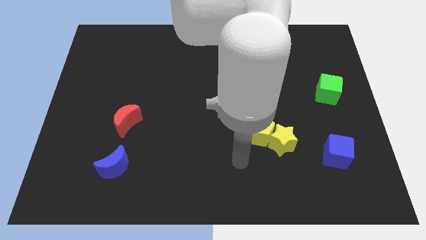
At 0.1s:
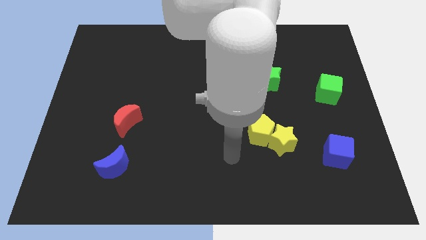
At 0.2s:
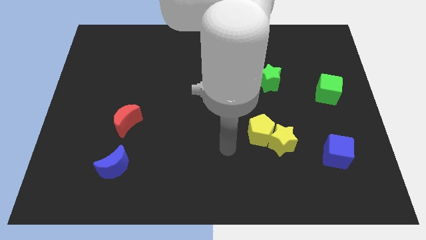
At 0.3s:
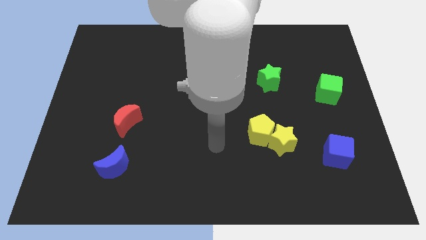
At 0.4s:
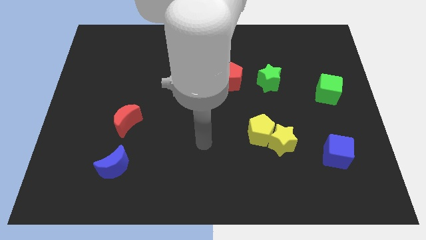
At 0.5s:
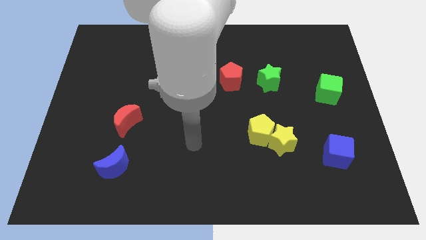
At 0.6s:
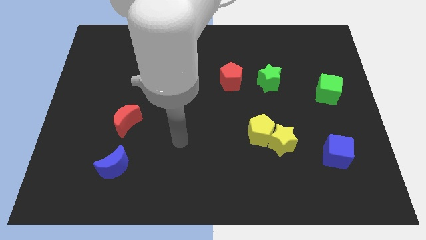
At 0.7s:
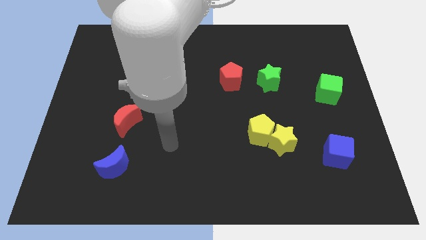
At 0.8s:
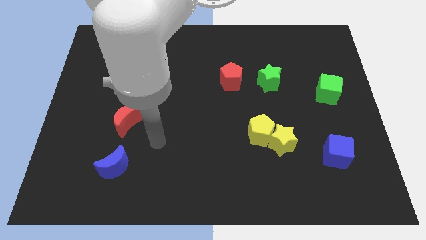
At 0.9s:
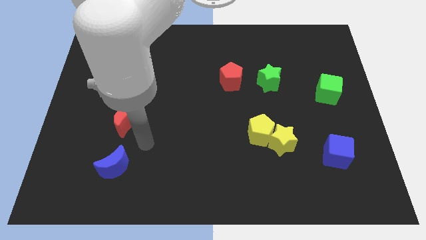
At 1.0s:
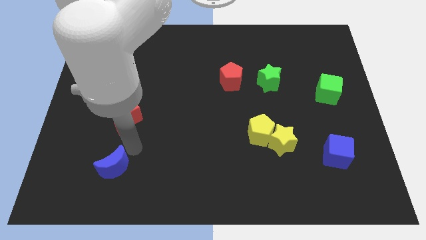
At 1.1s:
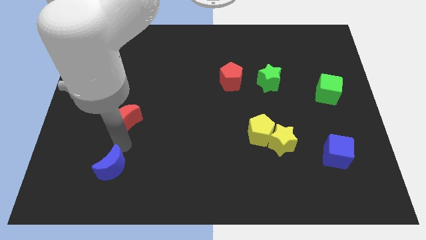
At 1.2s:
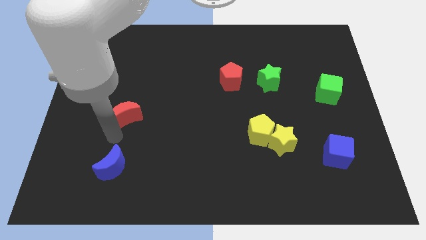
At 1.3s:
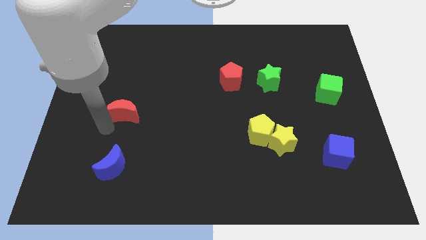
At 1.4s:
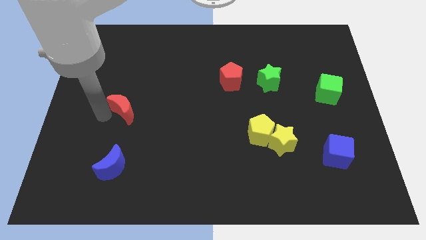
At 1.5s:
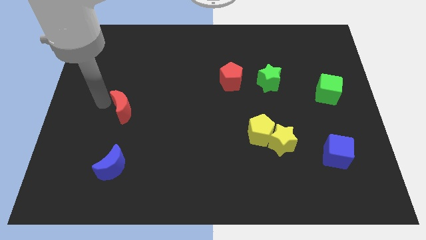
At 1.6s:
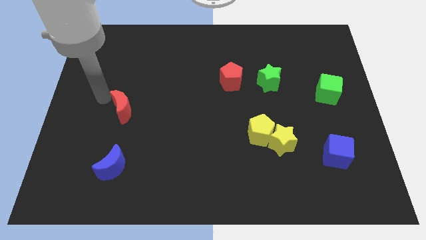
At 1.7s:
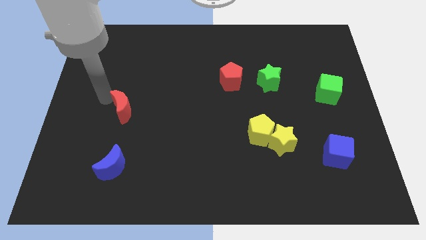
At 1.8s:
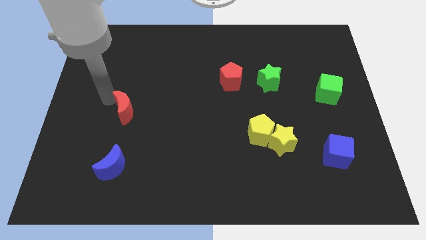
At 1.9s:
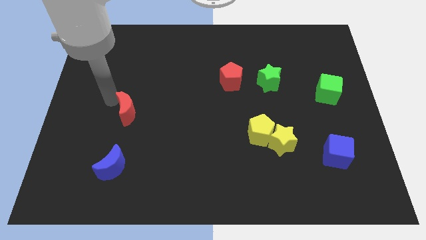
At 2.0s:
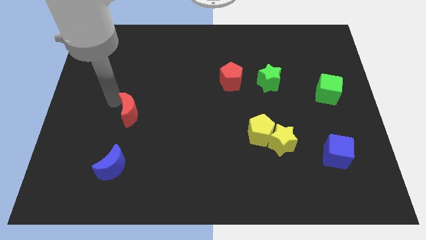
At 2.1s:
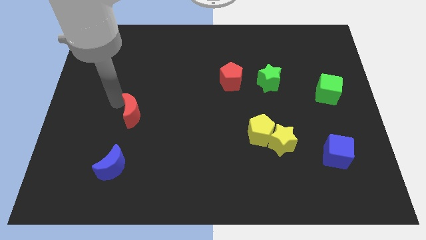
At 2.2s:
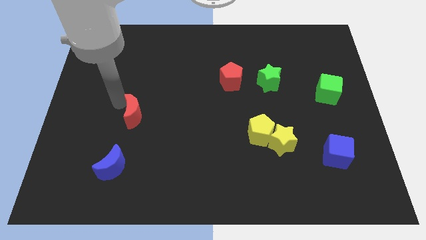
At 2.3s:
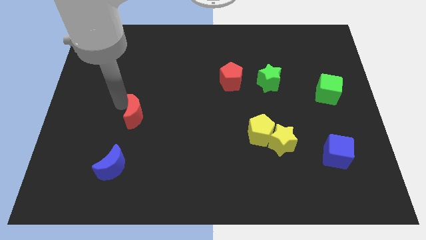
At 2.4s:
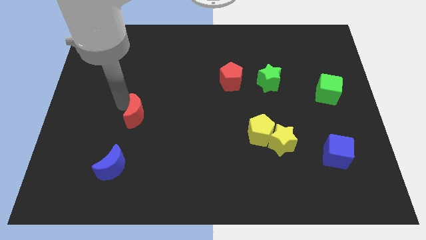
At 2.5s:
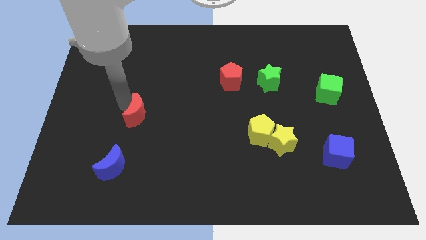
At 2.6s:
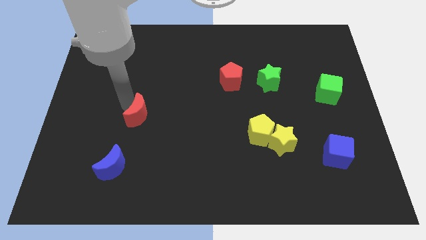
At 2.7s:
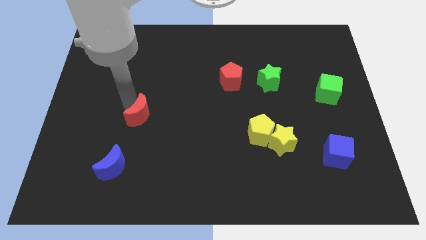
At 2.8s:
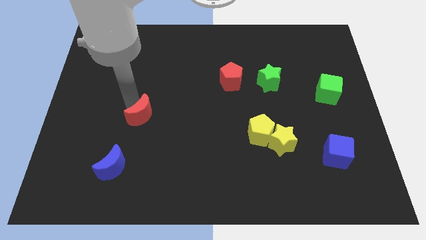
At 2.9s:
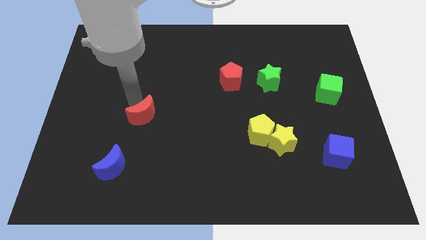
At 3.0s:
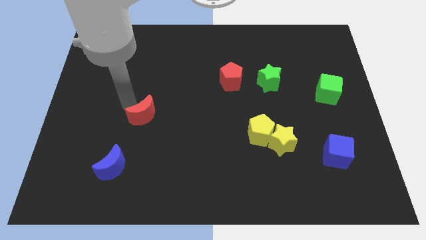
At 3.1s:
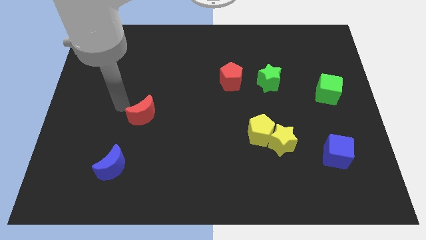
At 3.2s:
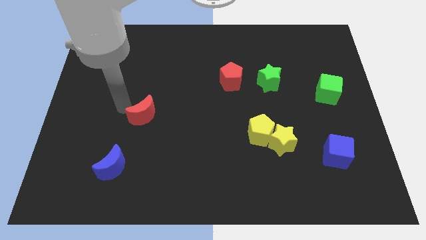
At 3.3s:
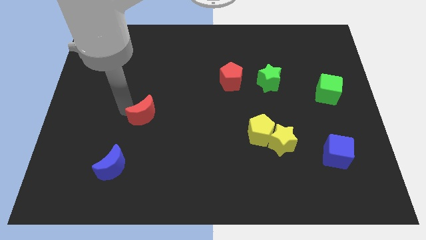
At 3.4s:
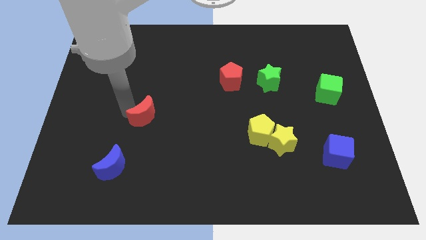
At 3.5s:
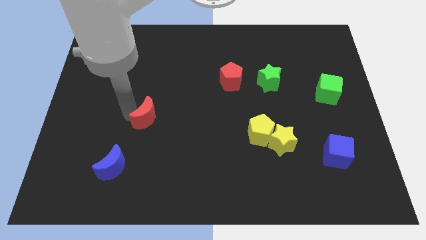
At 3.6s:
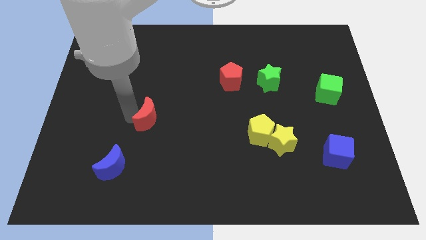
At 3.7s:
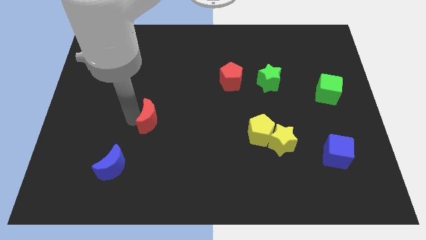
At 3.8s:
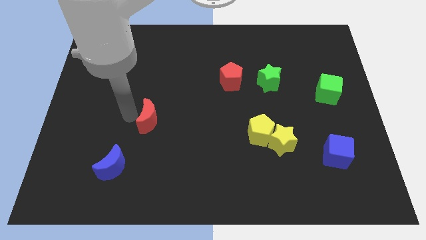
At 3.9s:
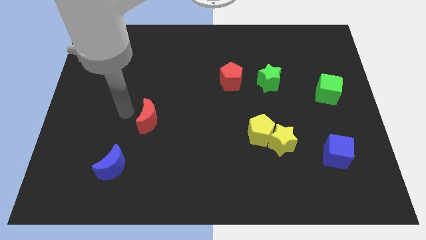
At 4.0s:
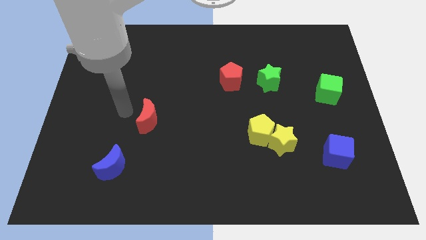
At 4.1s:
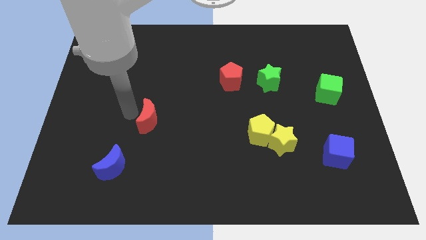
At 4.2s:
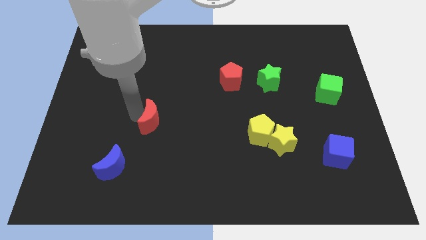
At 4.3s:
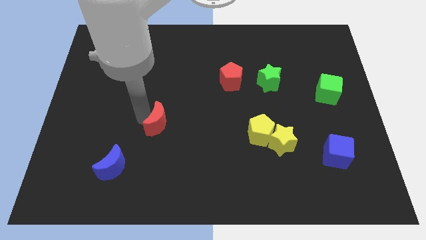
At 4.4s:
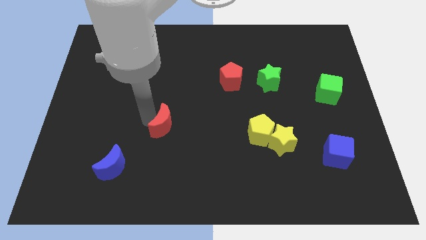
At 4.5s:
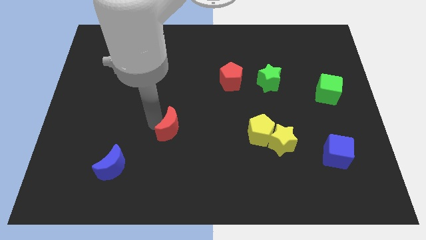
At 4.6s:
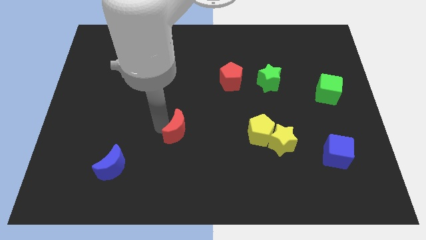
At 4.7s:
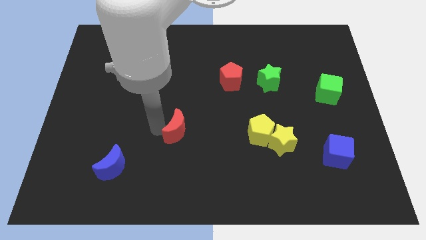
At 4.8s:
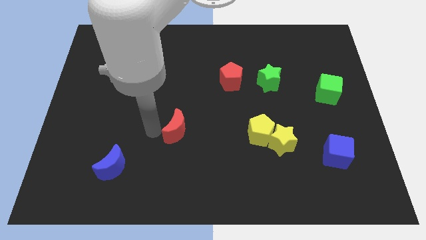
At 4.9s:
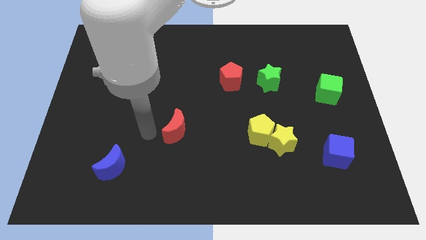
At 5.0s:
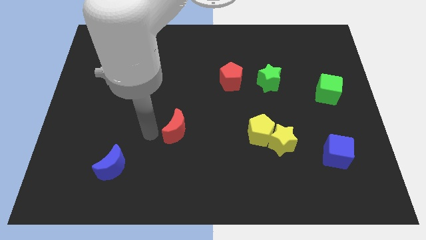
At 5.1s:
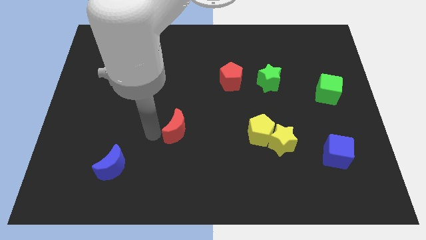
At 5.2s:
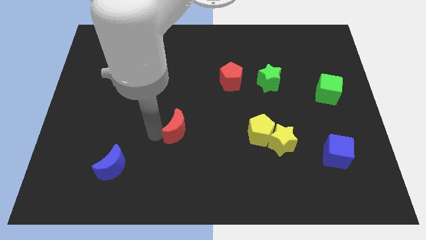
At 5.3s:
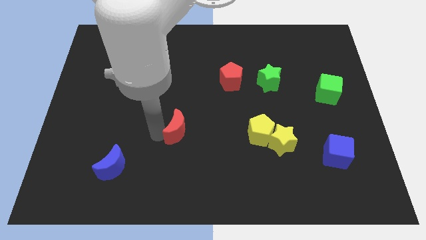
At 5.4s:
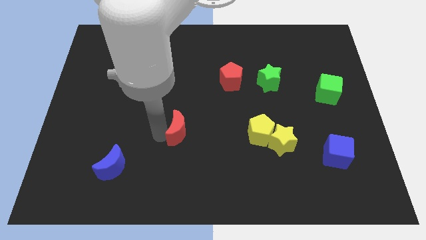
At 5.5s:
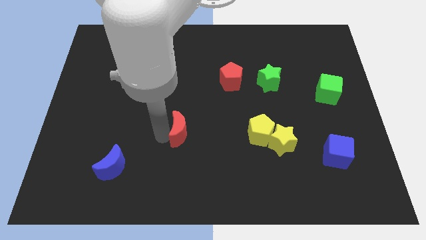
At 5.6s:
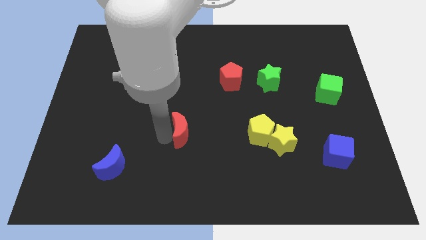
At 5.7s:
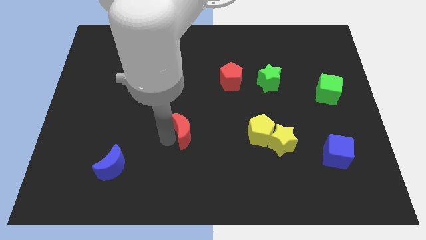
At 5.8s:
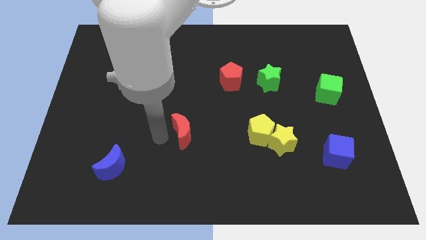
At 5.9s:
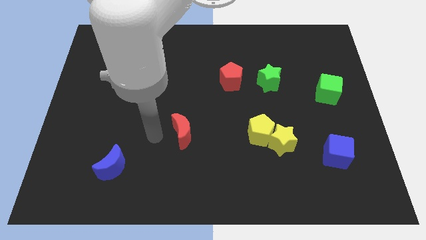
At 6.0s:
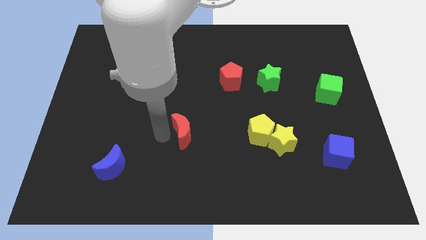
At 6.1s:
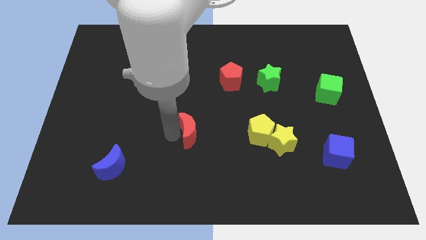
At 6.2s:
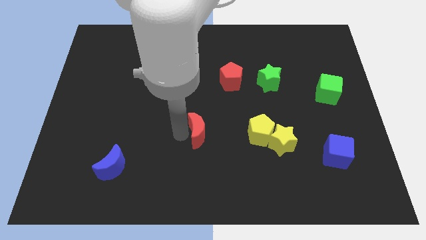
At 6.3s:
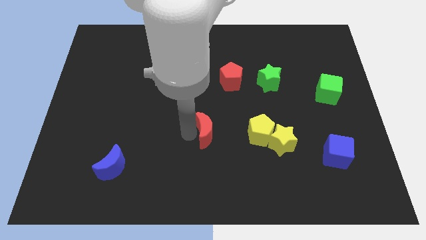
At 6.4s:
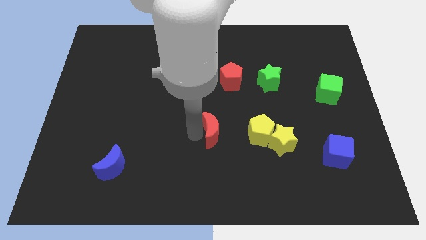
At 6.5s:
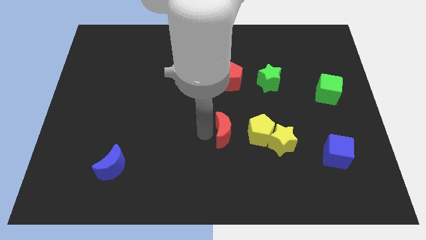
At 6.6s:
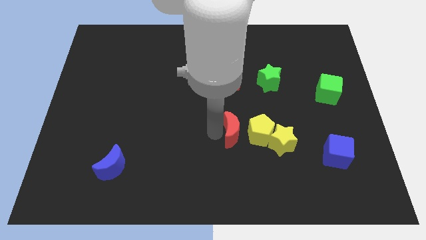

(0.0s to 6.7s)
put the red moon towards the yellow pentagon

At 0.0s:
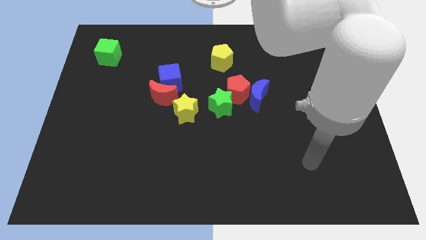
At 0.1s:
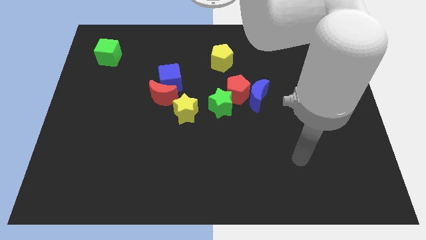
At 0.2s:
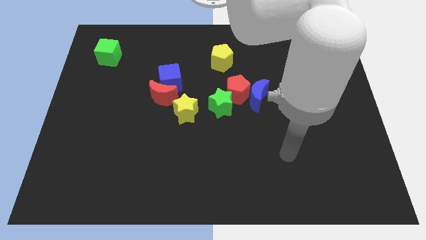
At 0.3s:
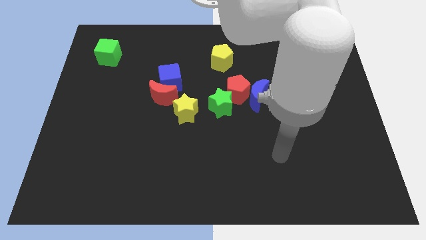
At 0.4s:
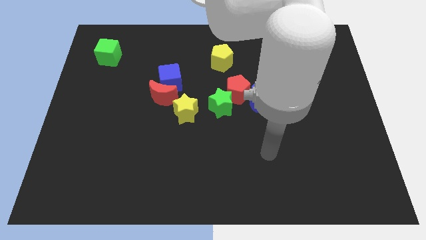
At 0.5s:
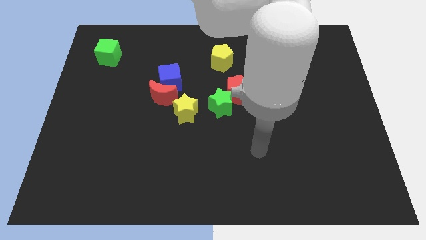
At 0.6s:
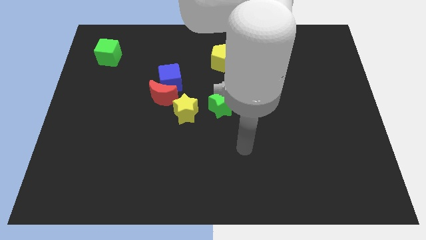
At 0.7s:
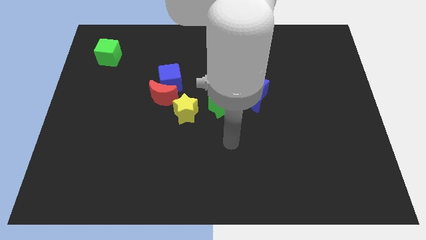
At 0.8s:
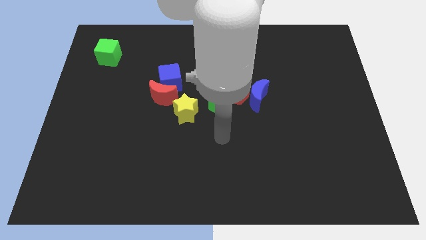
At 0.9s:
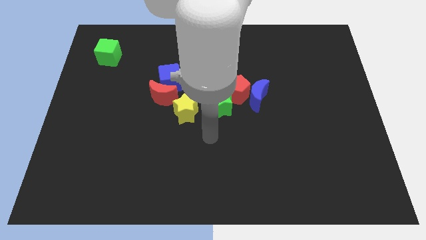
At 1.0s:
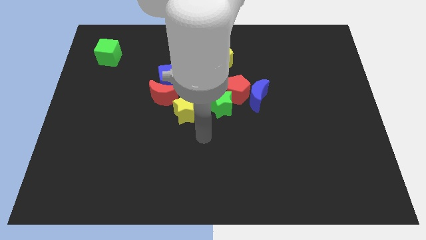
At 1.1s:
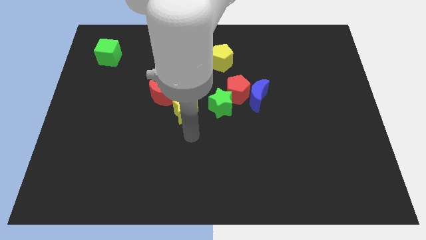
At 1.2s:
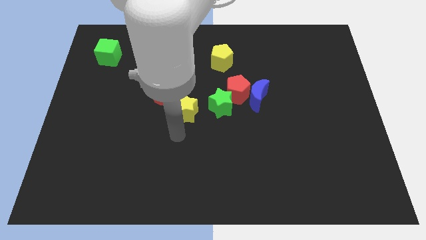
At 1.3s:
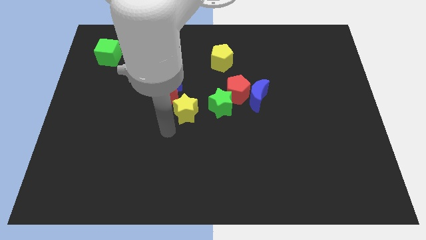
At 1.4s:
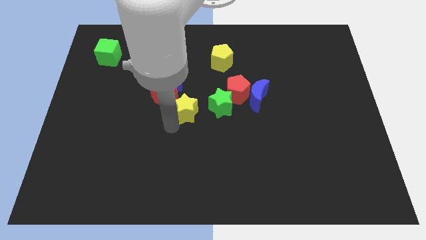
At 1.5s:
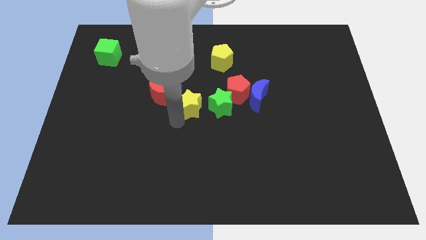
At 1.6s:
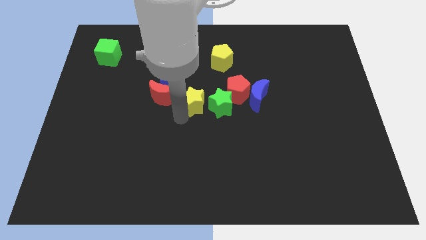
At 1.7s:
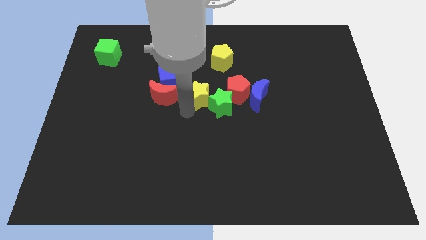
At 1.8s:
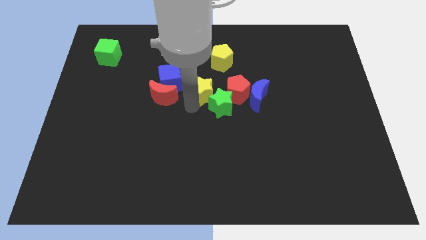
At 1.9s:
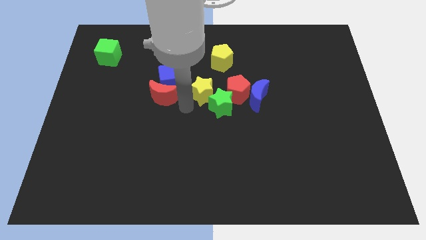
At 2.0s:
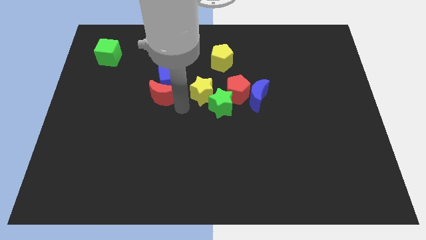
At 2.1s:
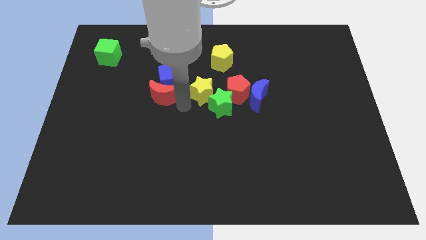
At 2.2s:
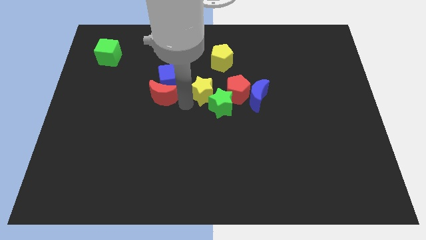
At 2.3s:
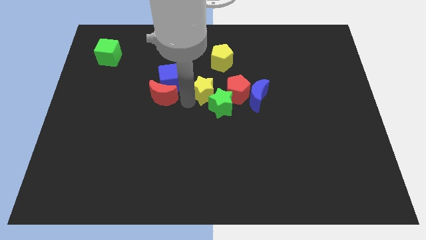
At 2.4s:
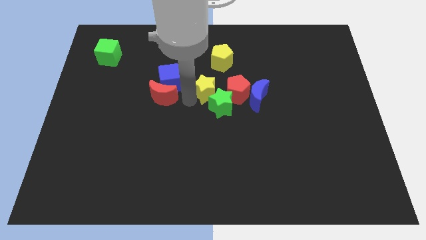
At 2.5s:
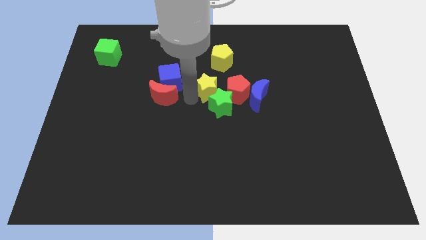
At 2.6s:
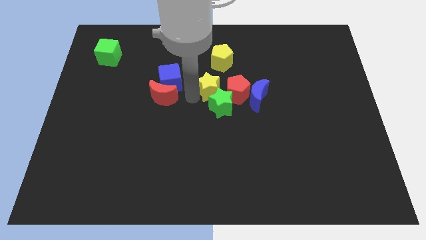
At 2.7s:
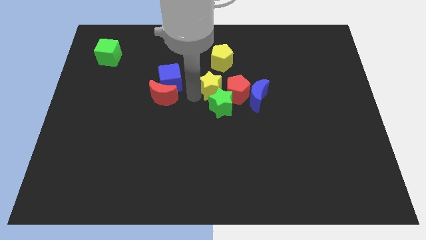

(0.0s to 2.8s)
push the yellow star next to the red pentagon
